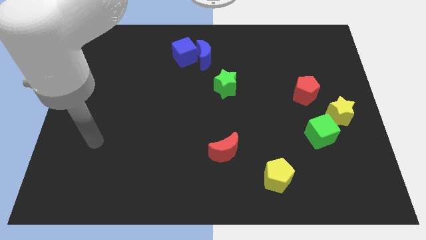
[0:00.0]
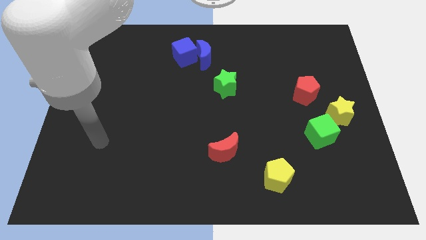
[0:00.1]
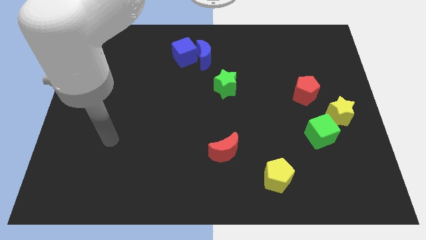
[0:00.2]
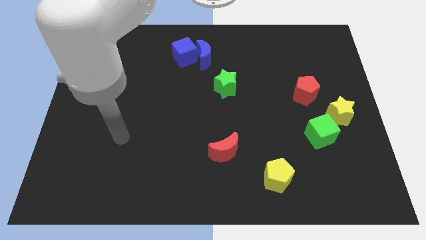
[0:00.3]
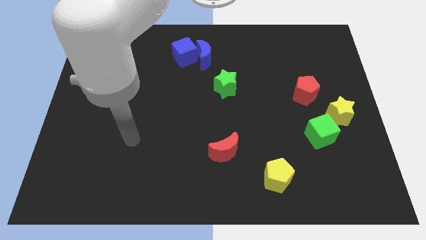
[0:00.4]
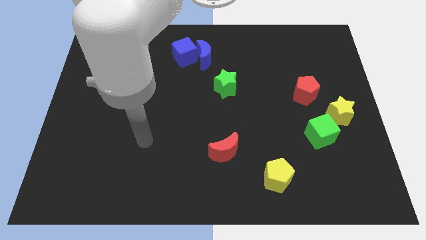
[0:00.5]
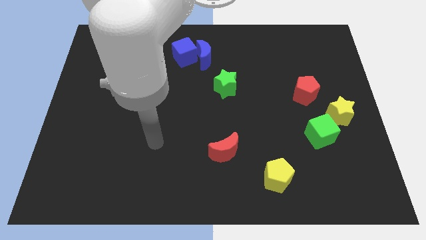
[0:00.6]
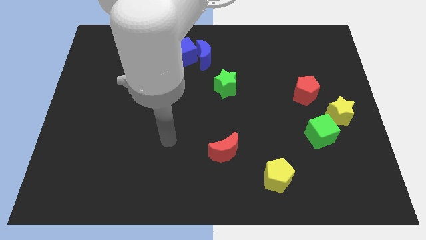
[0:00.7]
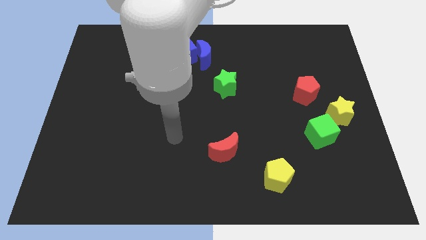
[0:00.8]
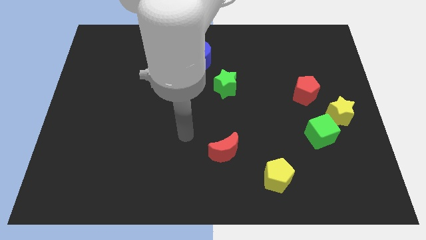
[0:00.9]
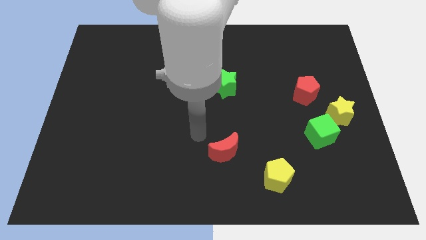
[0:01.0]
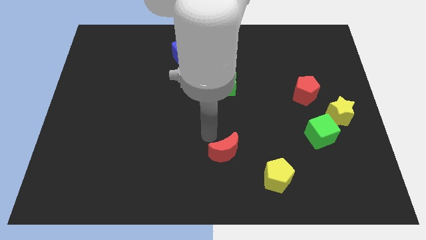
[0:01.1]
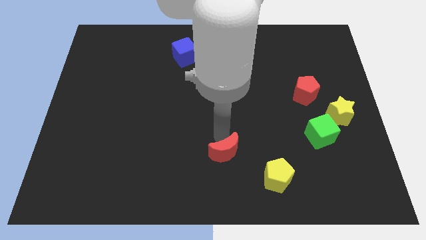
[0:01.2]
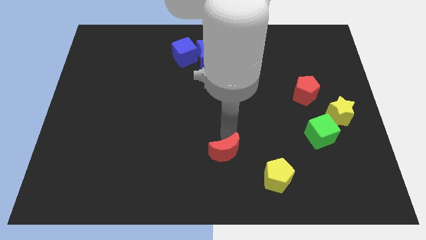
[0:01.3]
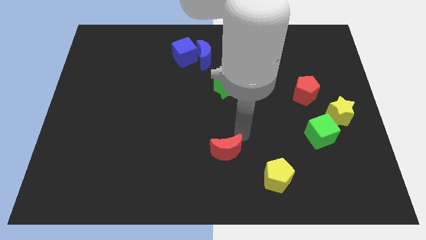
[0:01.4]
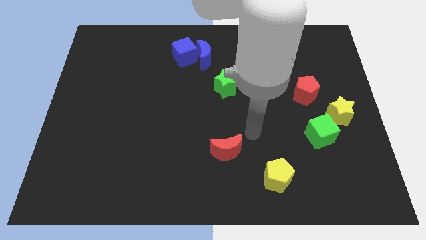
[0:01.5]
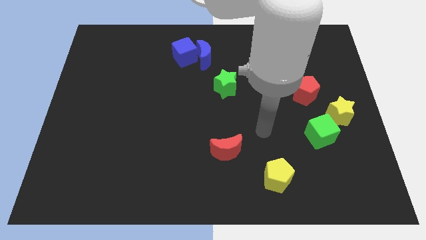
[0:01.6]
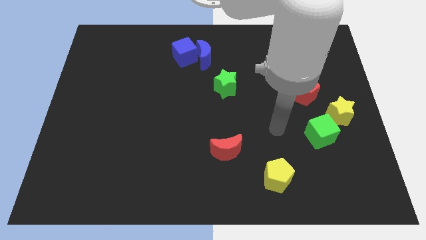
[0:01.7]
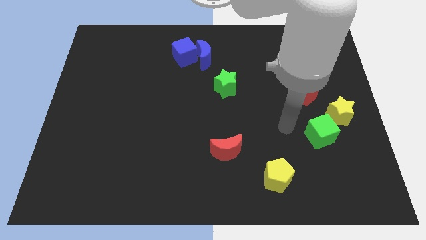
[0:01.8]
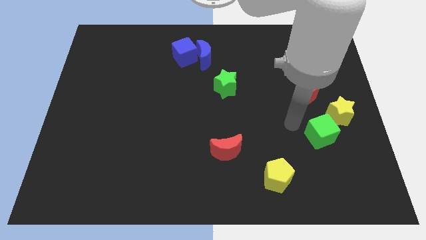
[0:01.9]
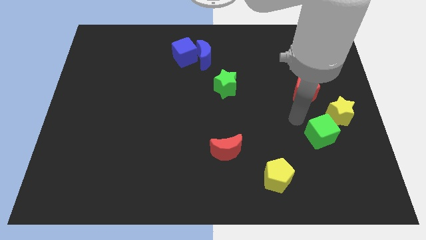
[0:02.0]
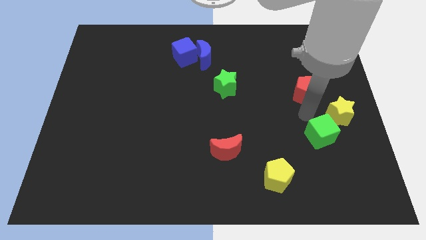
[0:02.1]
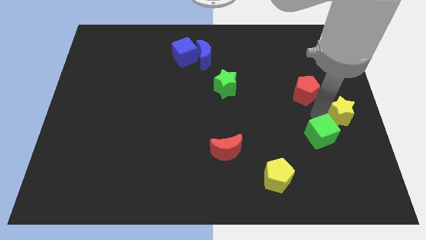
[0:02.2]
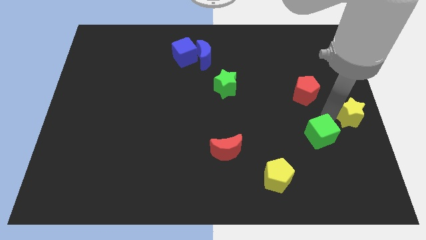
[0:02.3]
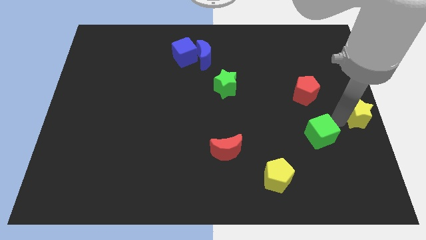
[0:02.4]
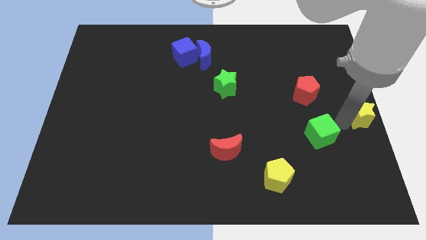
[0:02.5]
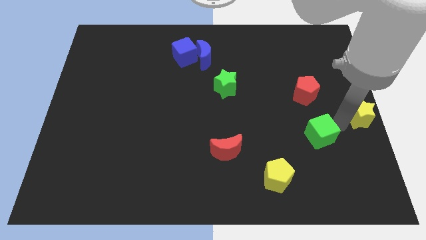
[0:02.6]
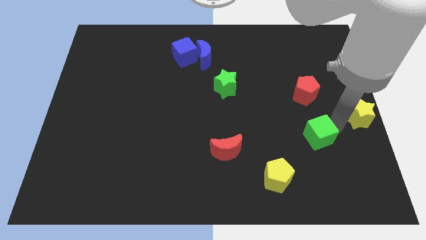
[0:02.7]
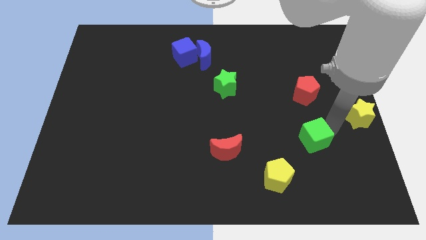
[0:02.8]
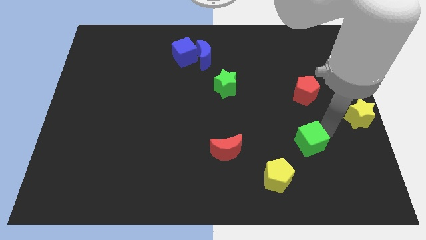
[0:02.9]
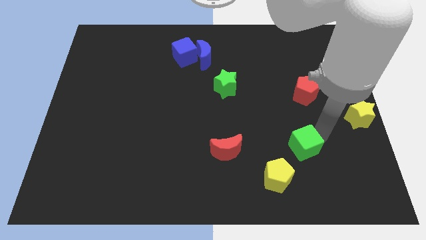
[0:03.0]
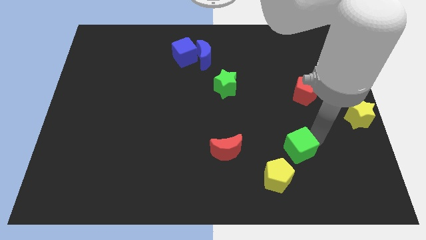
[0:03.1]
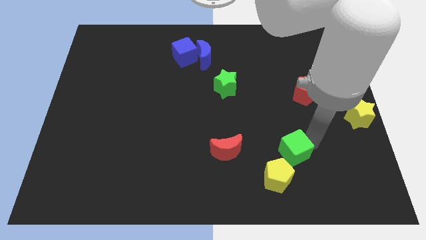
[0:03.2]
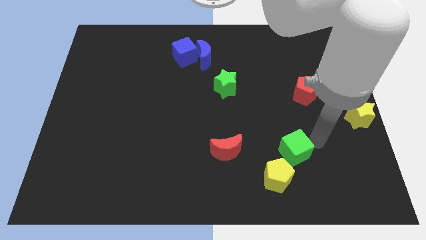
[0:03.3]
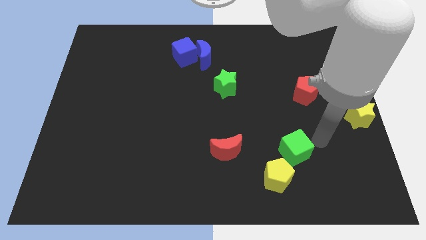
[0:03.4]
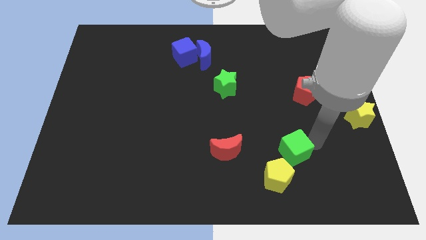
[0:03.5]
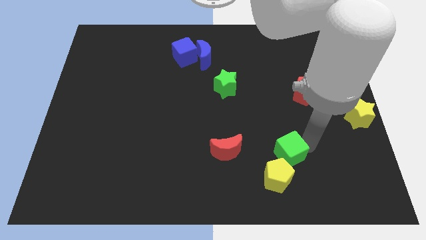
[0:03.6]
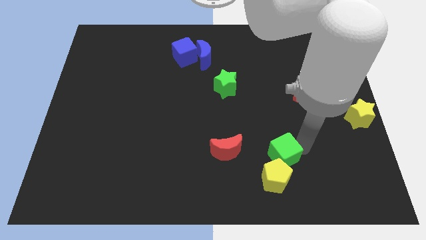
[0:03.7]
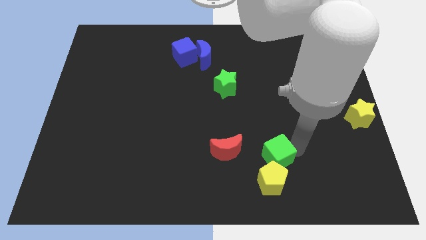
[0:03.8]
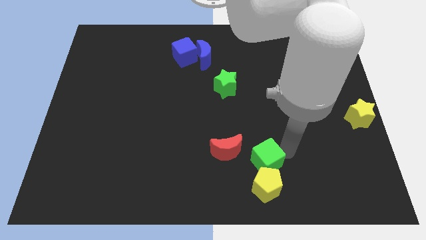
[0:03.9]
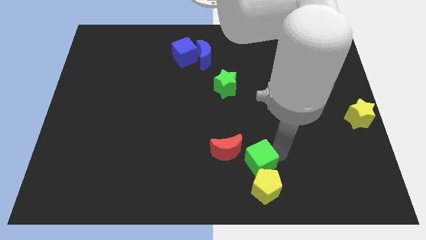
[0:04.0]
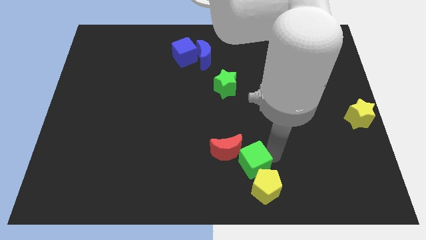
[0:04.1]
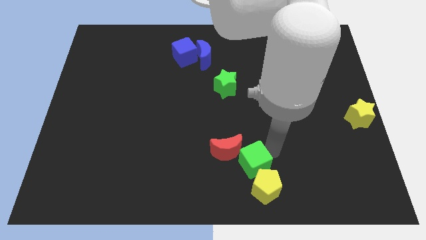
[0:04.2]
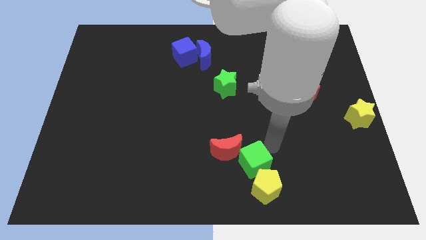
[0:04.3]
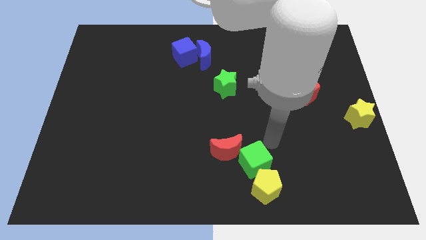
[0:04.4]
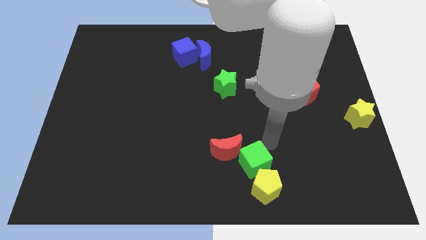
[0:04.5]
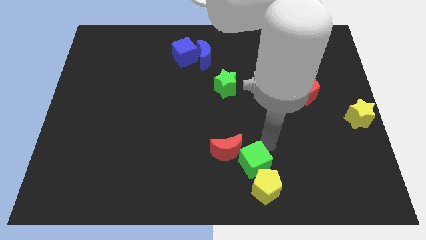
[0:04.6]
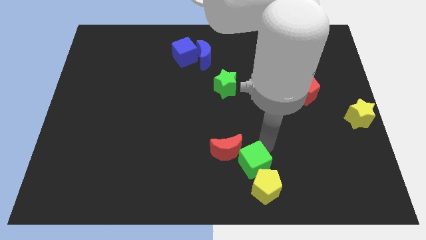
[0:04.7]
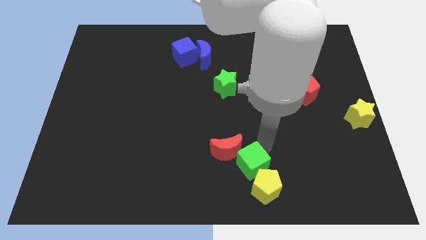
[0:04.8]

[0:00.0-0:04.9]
move the green cube to the bottom

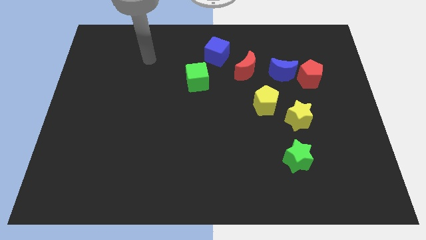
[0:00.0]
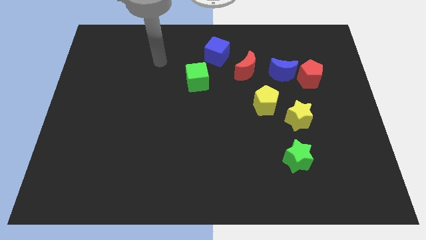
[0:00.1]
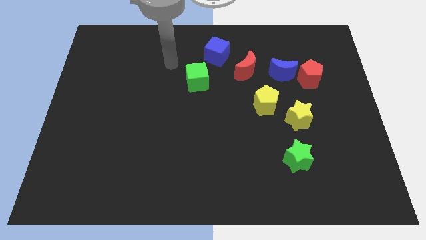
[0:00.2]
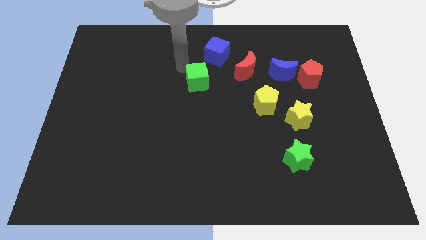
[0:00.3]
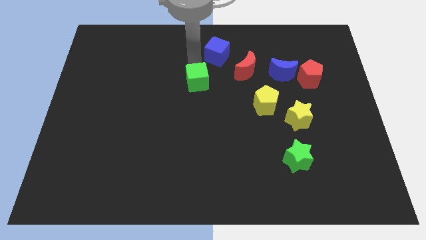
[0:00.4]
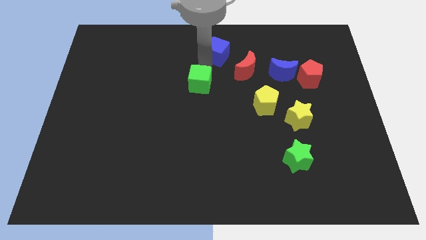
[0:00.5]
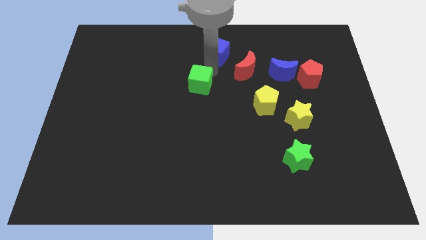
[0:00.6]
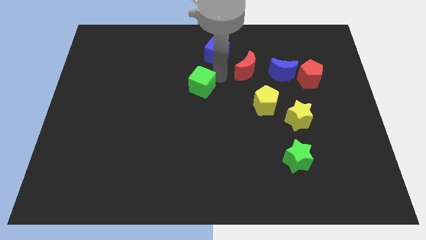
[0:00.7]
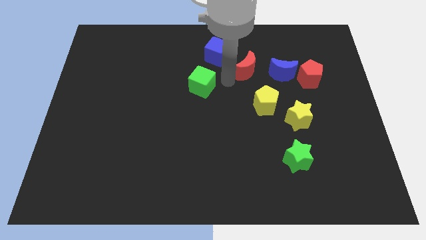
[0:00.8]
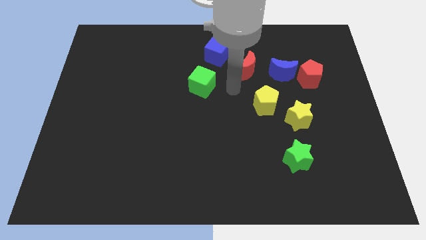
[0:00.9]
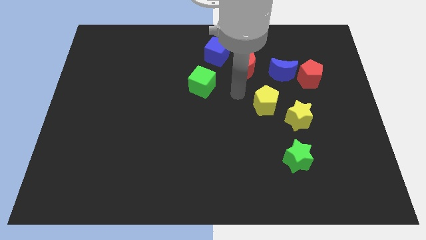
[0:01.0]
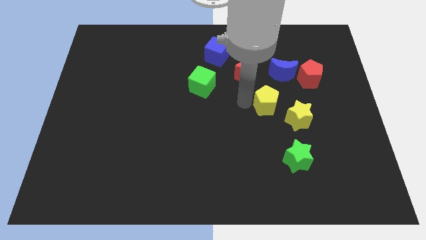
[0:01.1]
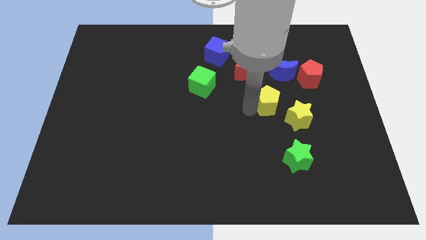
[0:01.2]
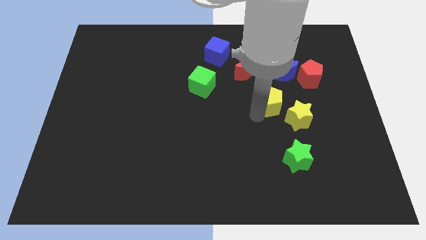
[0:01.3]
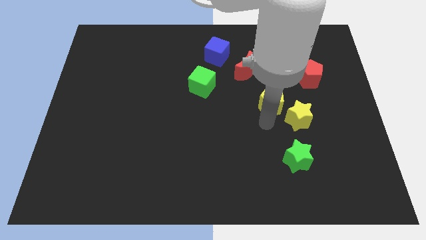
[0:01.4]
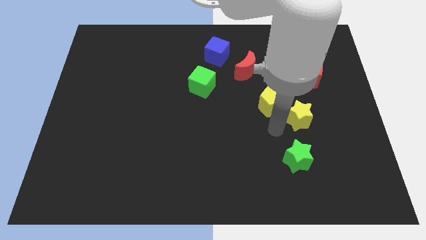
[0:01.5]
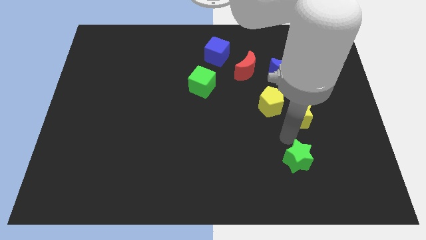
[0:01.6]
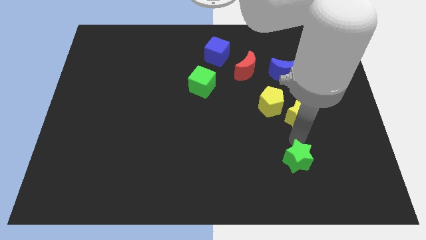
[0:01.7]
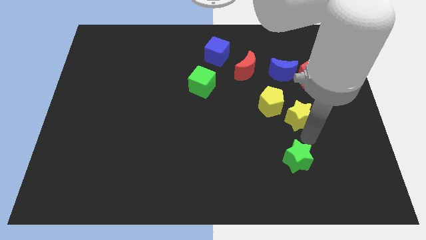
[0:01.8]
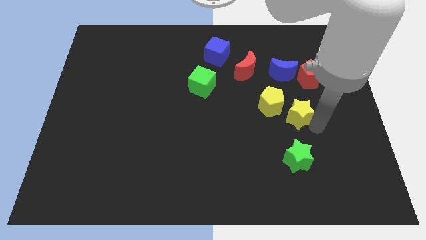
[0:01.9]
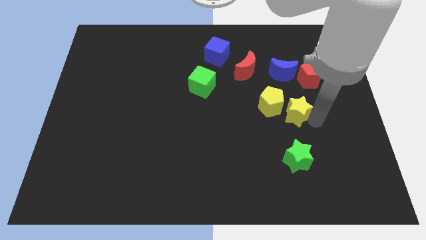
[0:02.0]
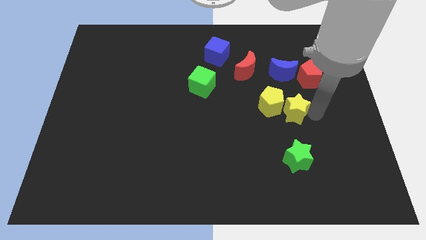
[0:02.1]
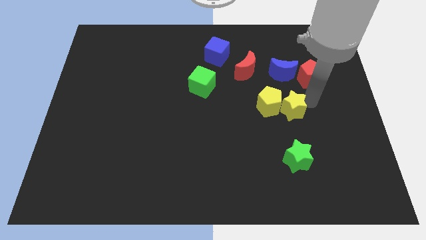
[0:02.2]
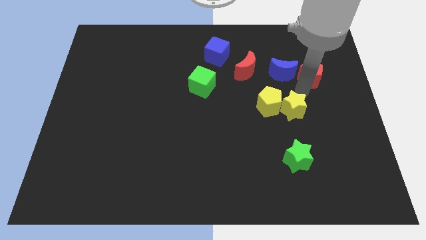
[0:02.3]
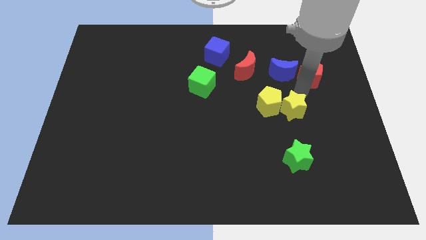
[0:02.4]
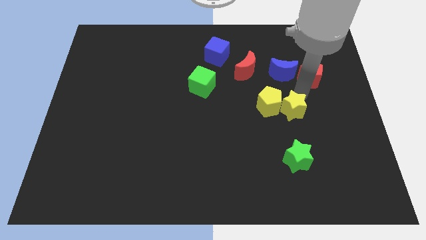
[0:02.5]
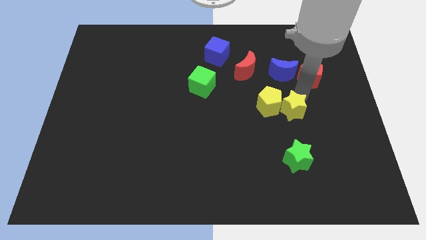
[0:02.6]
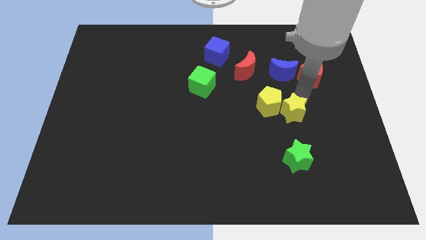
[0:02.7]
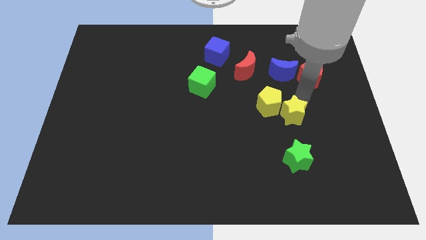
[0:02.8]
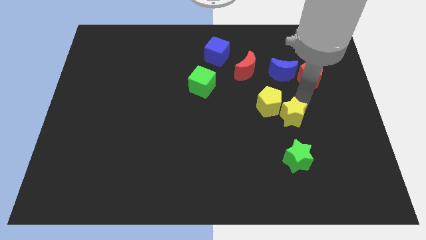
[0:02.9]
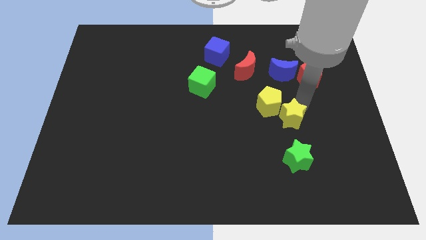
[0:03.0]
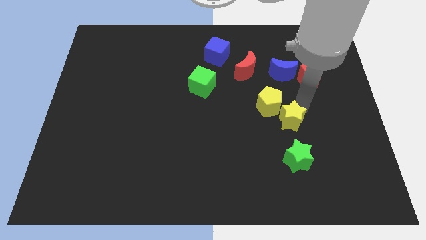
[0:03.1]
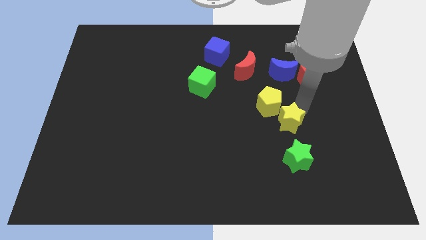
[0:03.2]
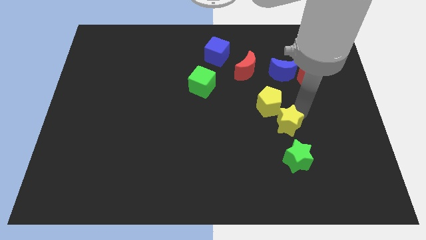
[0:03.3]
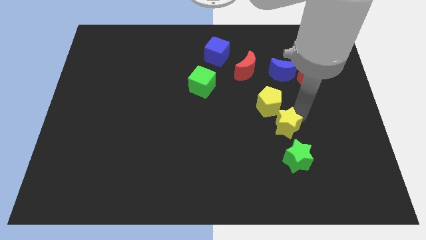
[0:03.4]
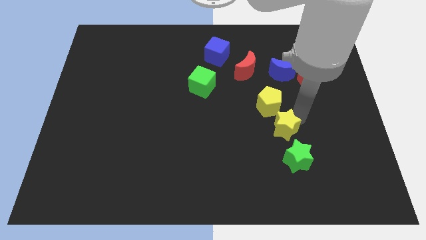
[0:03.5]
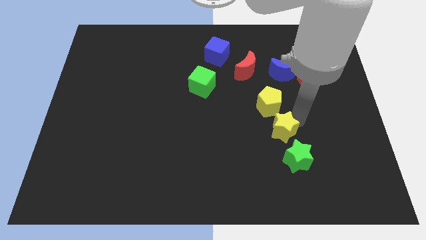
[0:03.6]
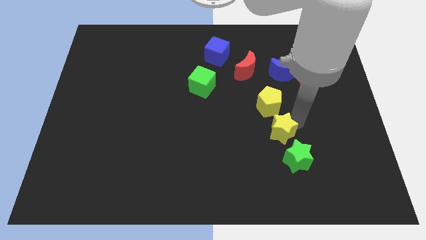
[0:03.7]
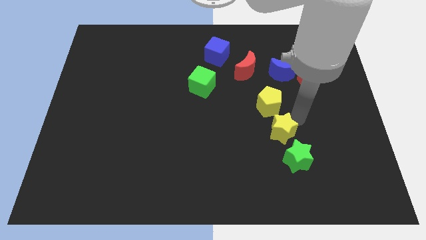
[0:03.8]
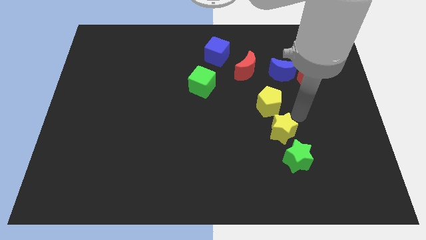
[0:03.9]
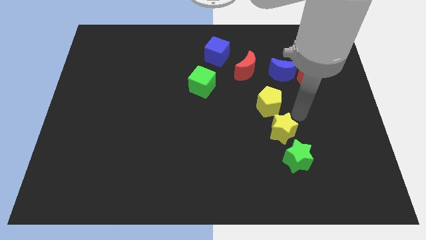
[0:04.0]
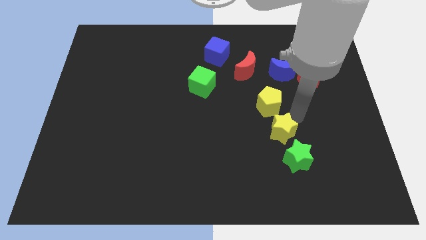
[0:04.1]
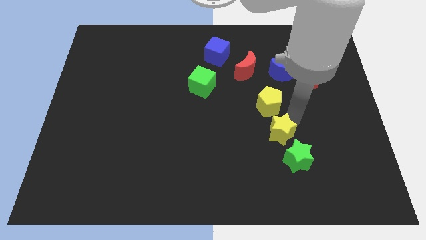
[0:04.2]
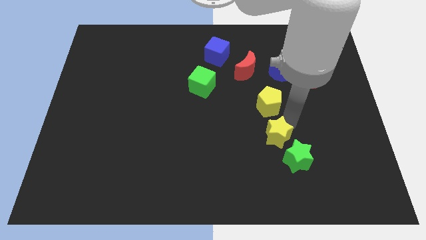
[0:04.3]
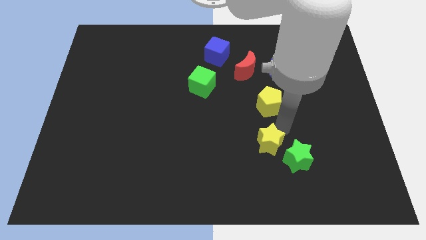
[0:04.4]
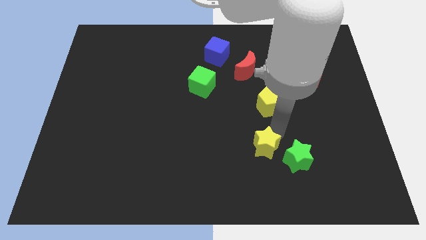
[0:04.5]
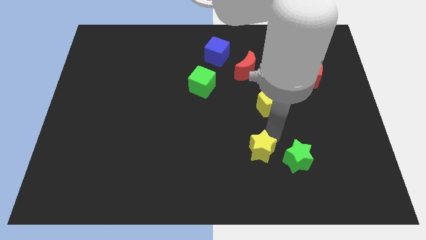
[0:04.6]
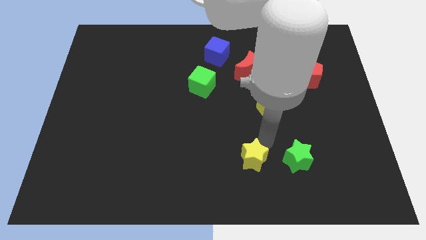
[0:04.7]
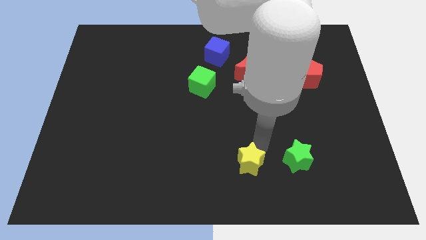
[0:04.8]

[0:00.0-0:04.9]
put the yellow star to the bottom side
